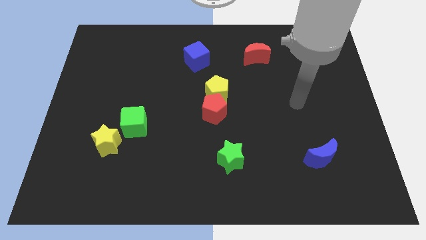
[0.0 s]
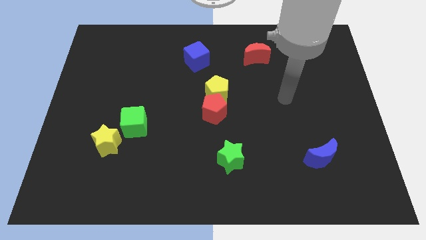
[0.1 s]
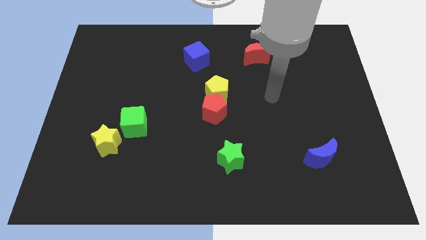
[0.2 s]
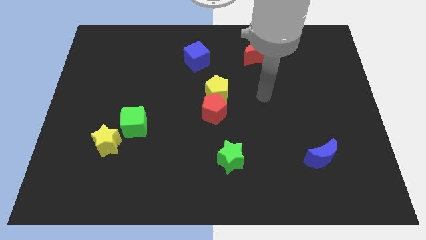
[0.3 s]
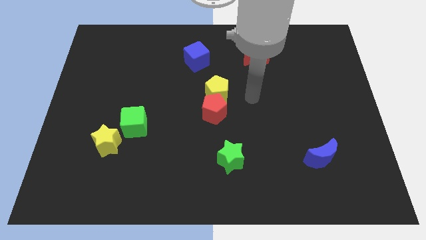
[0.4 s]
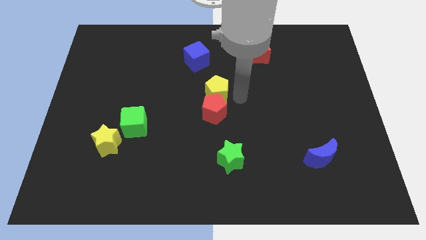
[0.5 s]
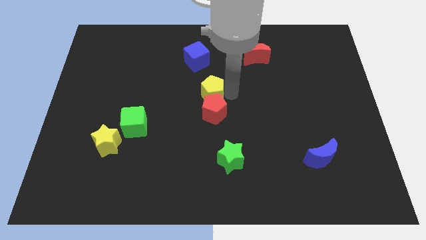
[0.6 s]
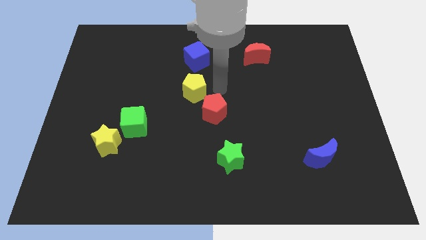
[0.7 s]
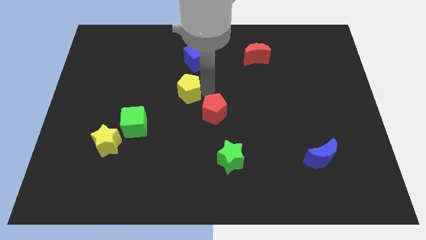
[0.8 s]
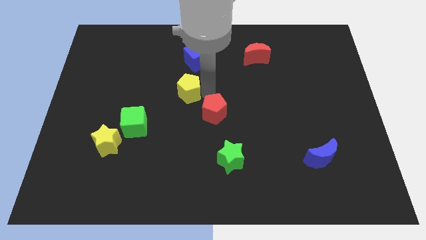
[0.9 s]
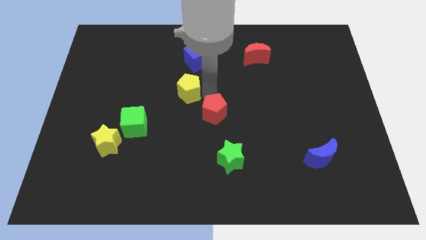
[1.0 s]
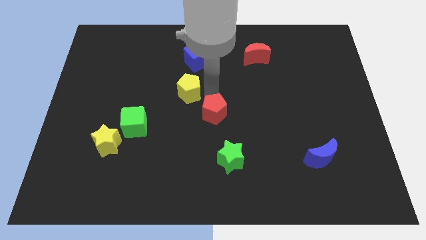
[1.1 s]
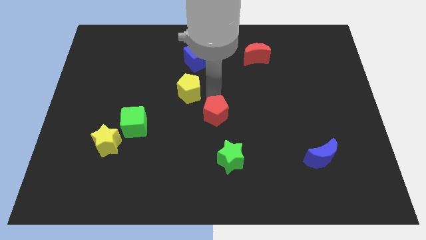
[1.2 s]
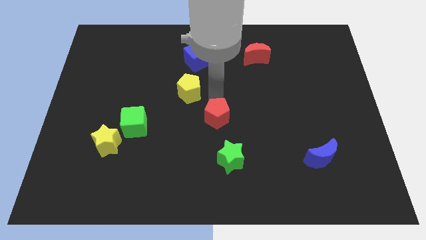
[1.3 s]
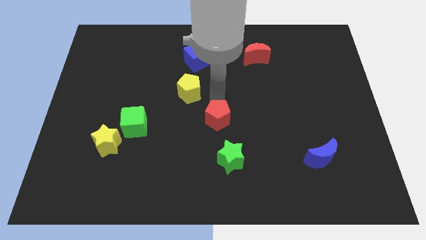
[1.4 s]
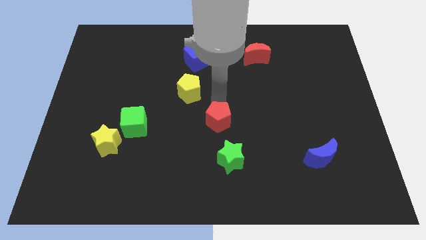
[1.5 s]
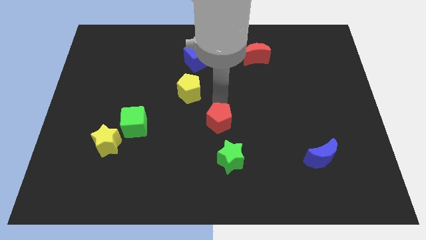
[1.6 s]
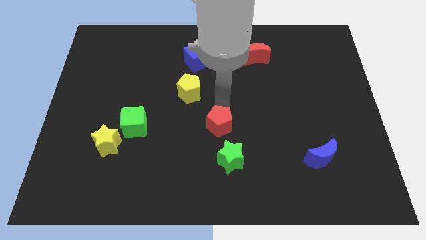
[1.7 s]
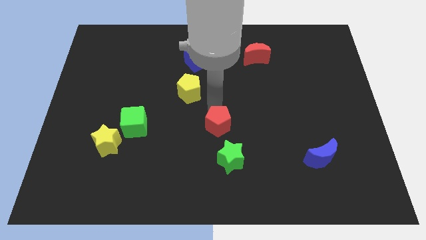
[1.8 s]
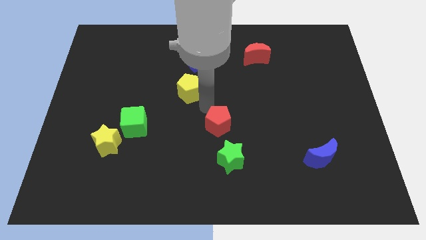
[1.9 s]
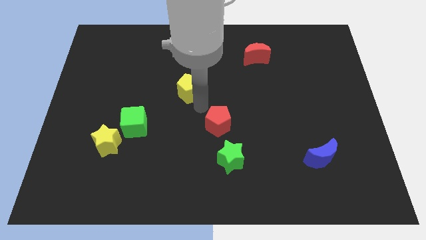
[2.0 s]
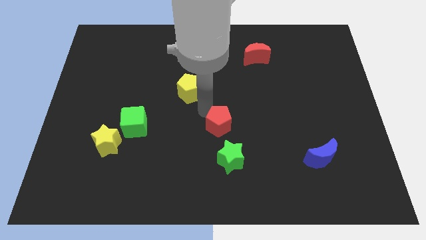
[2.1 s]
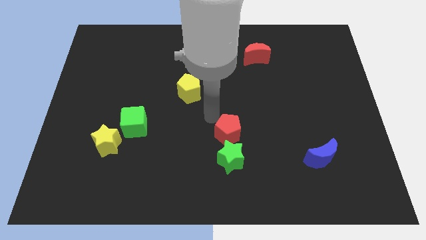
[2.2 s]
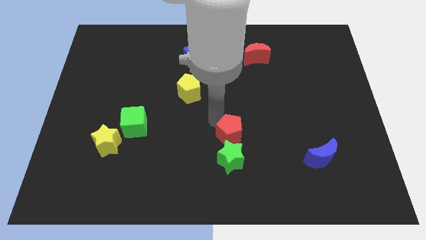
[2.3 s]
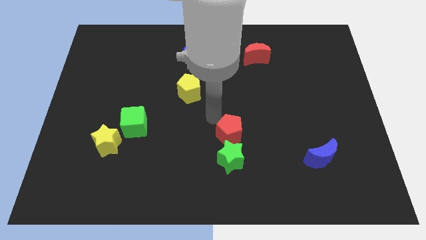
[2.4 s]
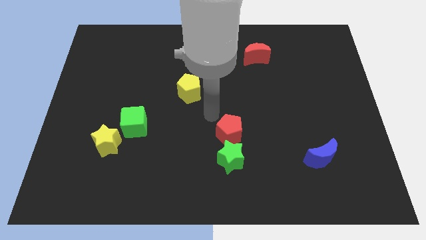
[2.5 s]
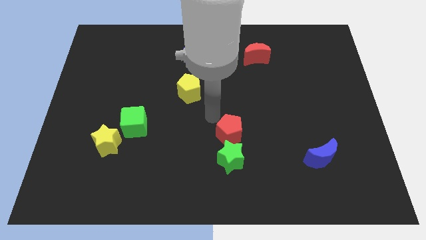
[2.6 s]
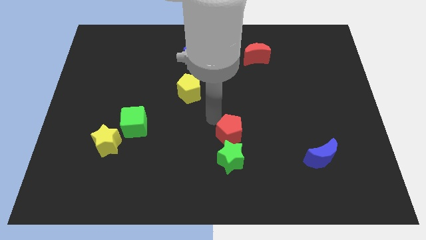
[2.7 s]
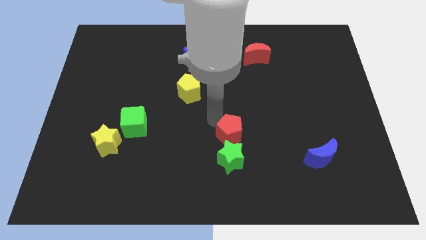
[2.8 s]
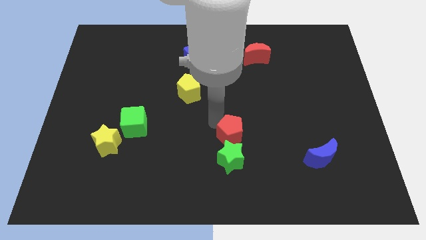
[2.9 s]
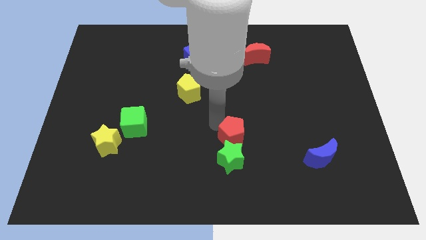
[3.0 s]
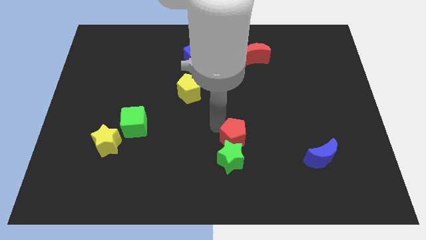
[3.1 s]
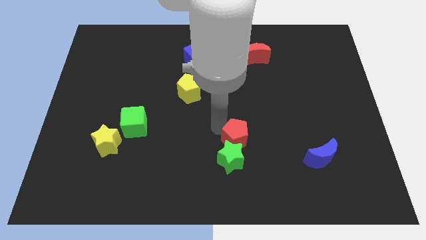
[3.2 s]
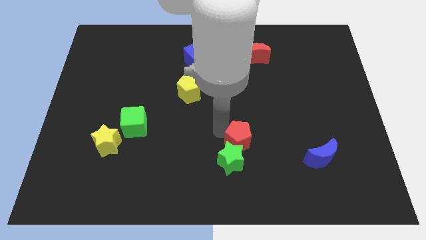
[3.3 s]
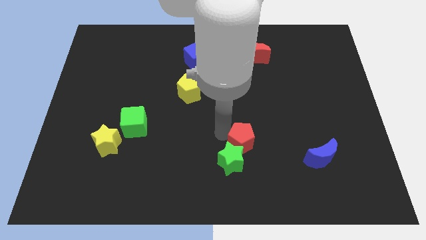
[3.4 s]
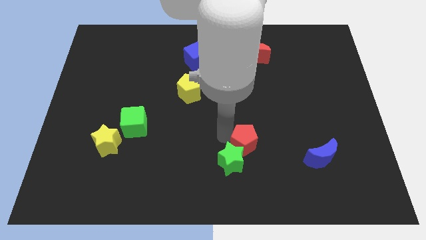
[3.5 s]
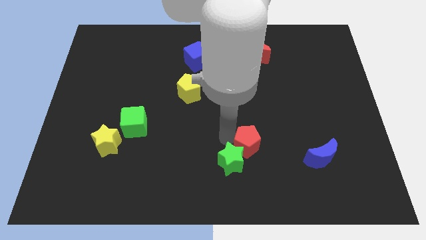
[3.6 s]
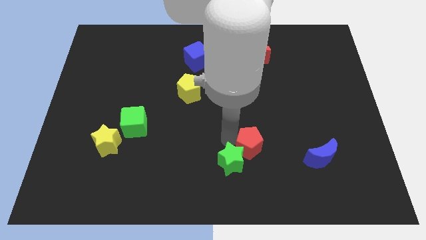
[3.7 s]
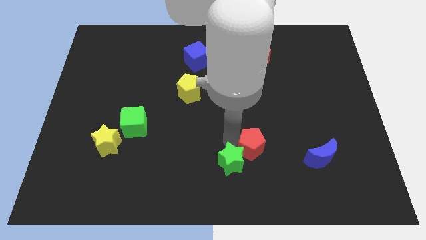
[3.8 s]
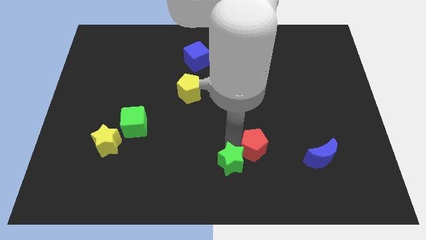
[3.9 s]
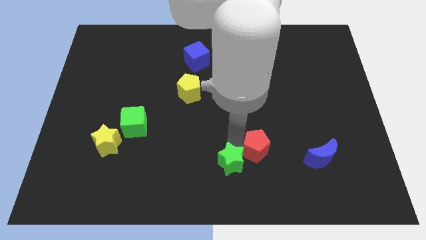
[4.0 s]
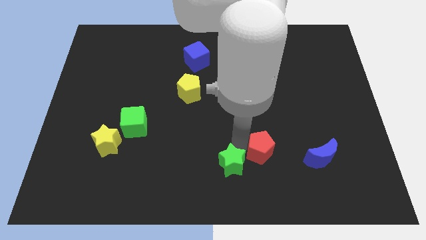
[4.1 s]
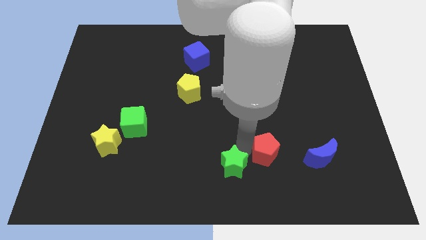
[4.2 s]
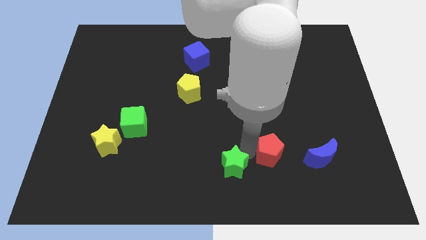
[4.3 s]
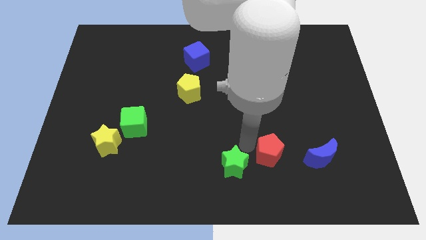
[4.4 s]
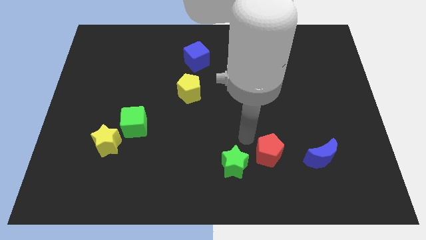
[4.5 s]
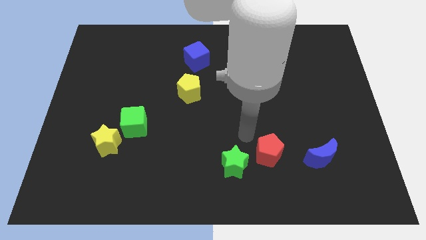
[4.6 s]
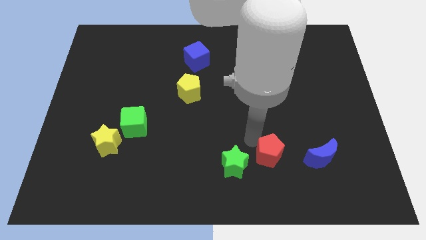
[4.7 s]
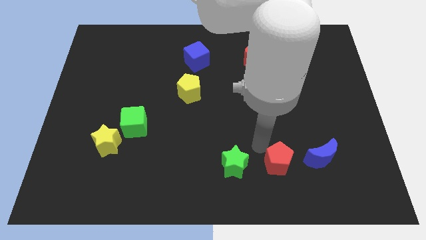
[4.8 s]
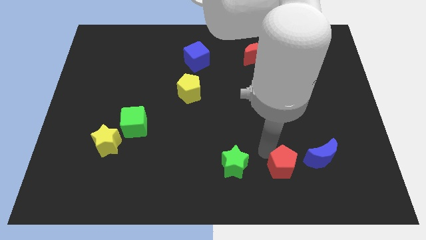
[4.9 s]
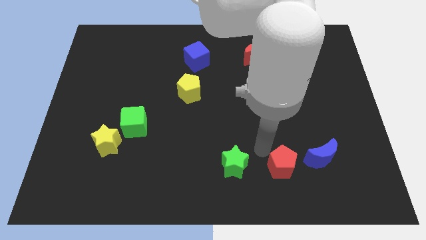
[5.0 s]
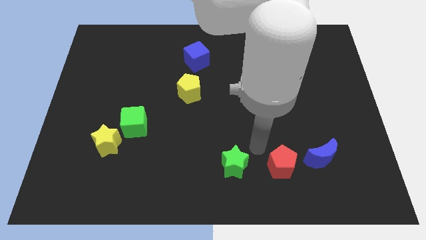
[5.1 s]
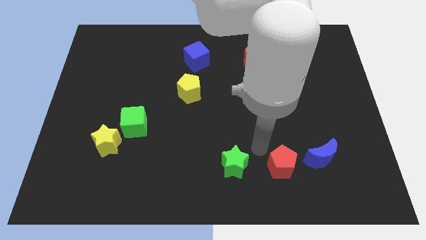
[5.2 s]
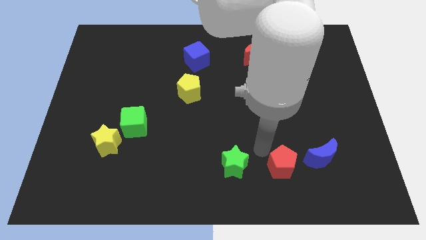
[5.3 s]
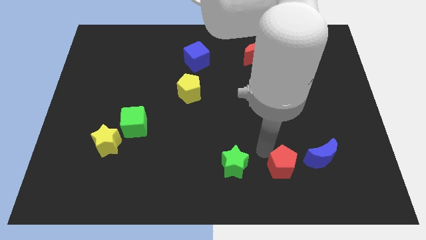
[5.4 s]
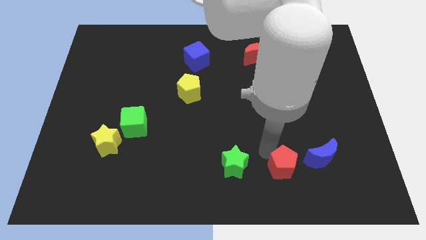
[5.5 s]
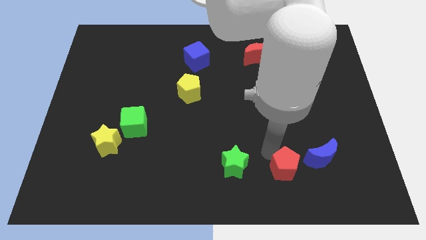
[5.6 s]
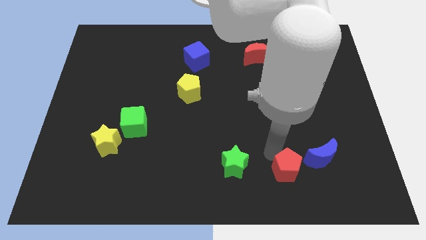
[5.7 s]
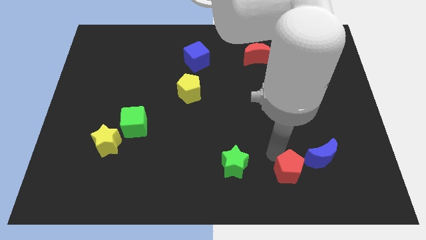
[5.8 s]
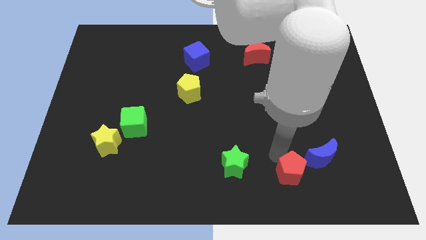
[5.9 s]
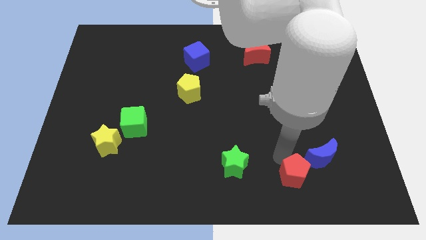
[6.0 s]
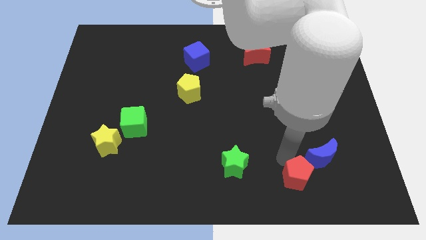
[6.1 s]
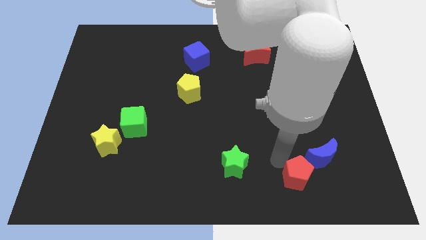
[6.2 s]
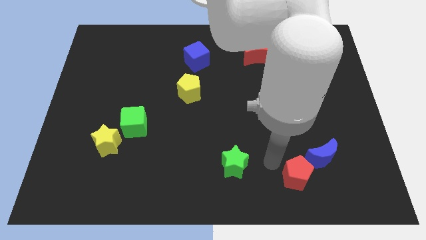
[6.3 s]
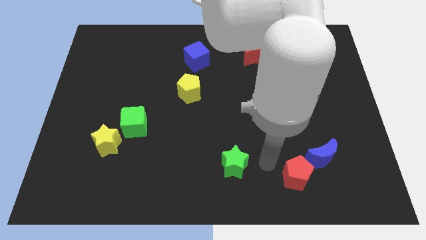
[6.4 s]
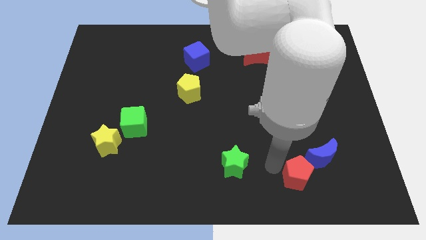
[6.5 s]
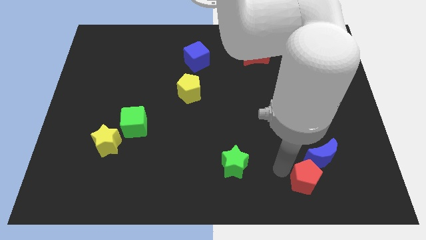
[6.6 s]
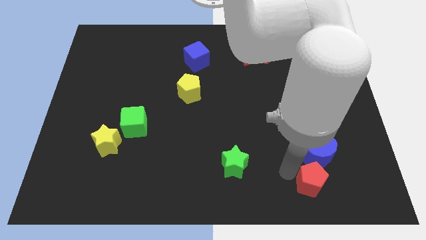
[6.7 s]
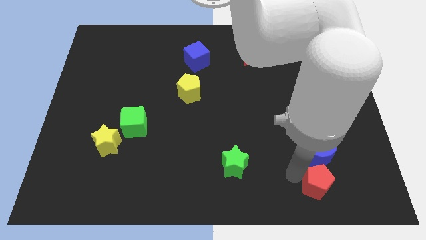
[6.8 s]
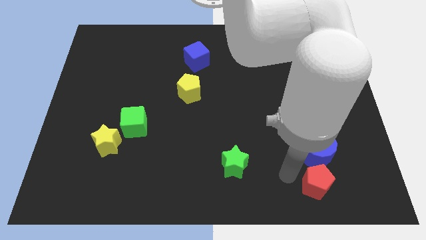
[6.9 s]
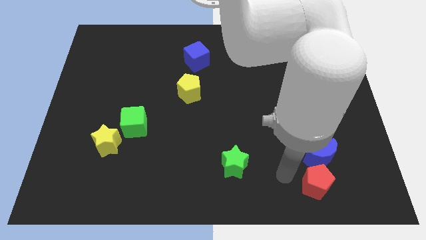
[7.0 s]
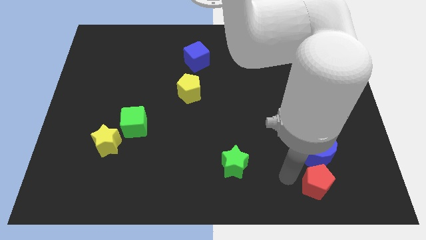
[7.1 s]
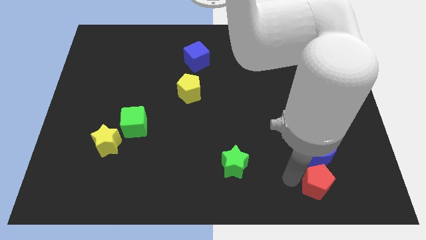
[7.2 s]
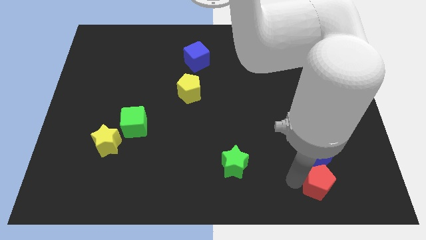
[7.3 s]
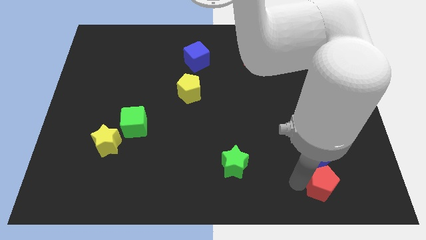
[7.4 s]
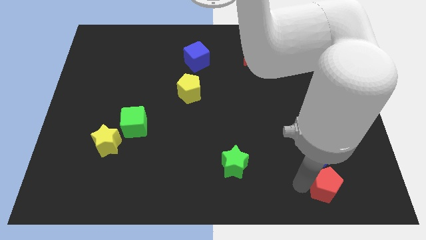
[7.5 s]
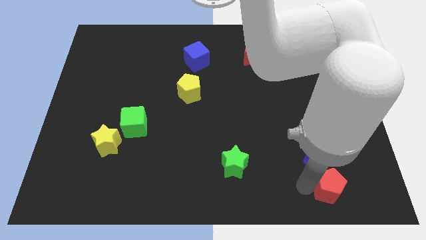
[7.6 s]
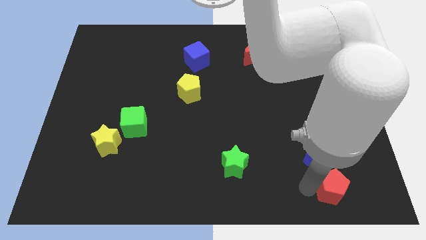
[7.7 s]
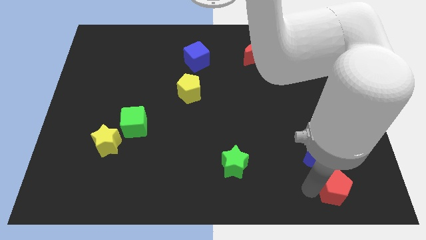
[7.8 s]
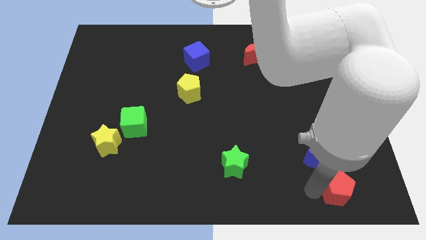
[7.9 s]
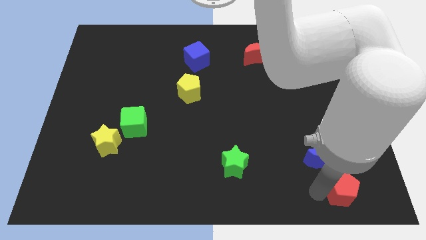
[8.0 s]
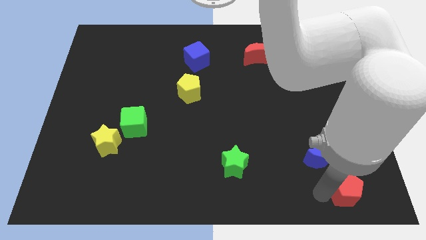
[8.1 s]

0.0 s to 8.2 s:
slide the red pentagon to the lower right corner
